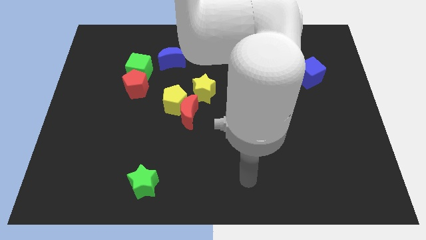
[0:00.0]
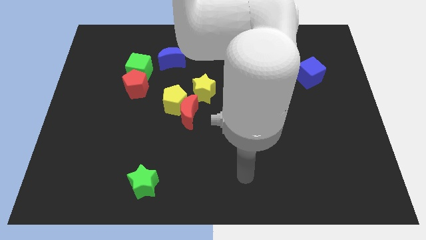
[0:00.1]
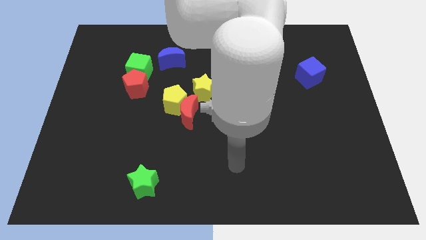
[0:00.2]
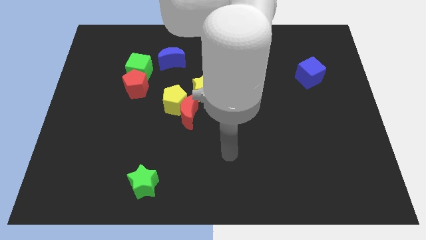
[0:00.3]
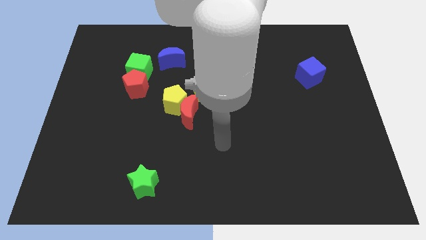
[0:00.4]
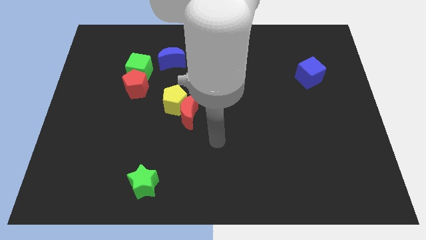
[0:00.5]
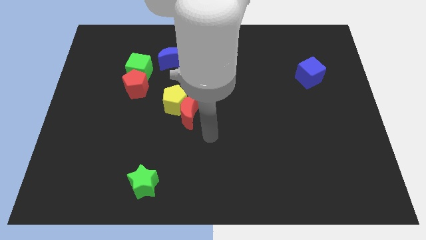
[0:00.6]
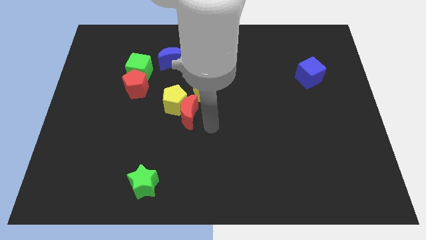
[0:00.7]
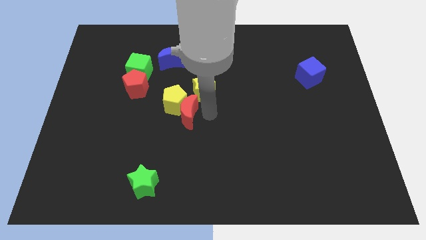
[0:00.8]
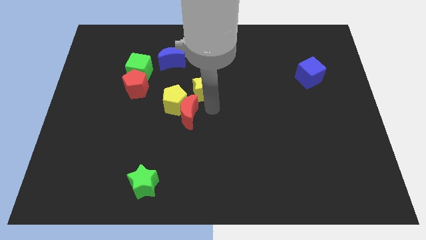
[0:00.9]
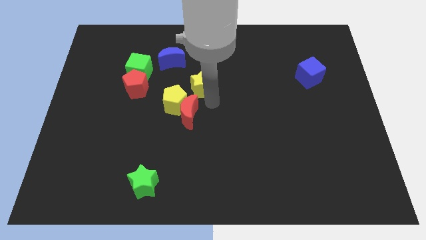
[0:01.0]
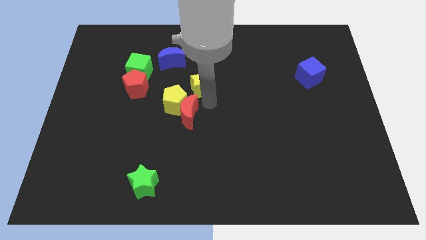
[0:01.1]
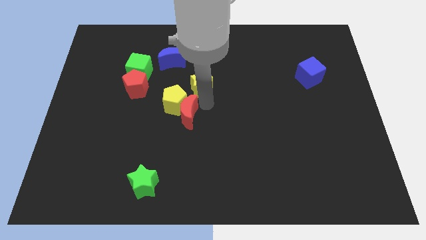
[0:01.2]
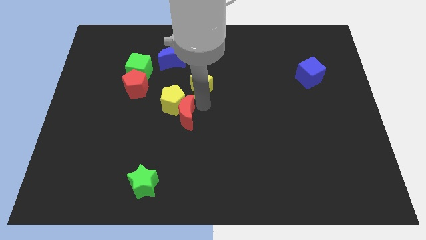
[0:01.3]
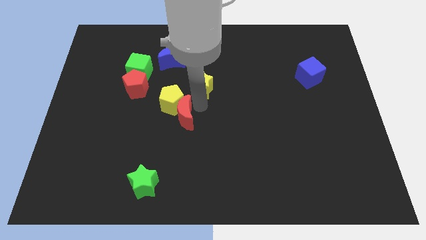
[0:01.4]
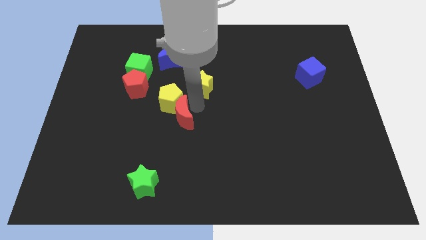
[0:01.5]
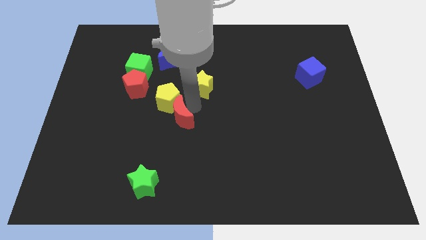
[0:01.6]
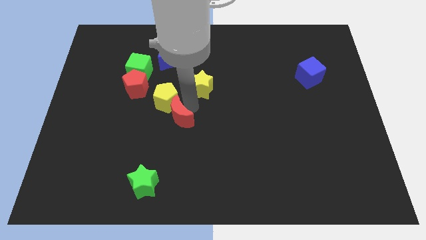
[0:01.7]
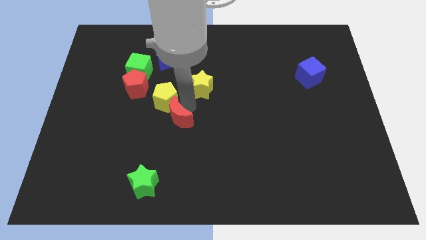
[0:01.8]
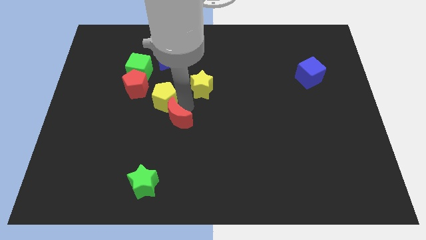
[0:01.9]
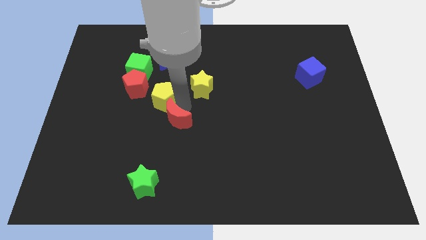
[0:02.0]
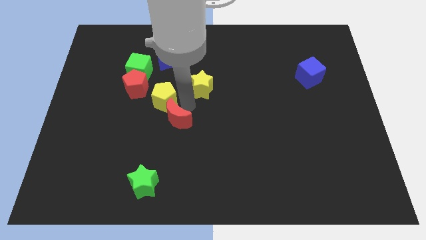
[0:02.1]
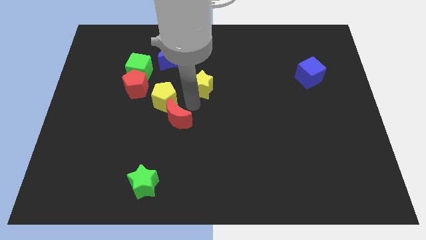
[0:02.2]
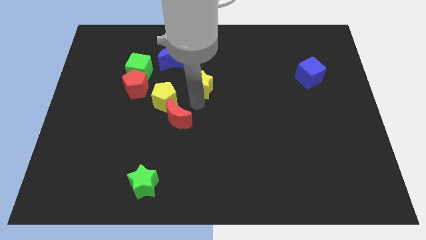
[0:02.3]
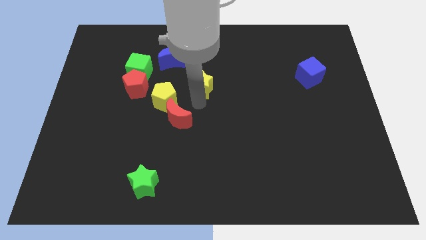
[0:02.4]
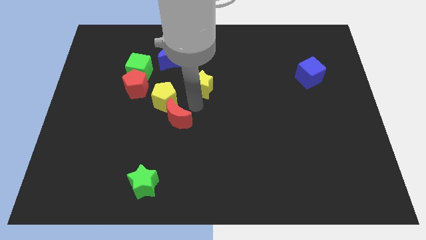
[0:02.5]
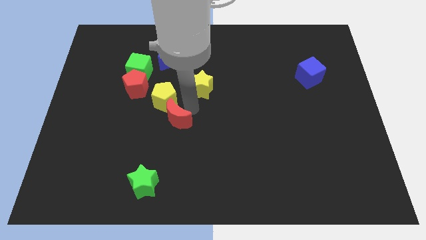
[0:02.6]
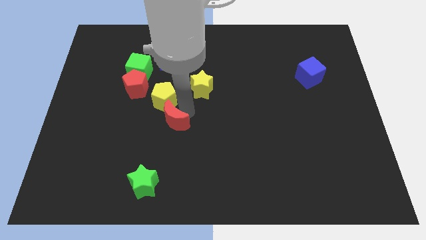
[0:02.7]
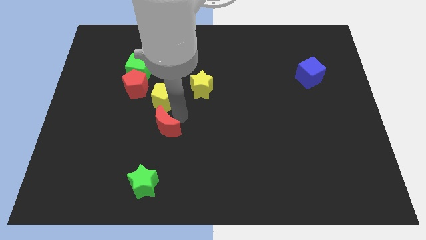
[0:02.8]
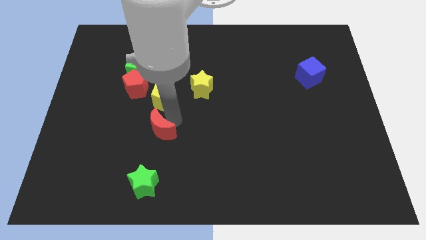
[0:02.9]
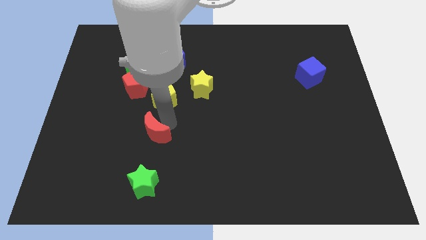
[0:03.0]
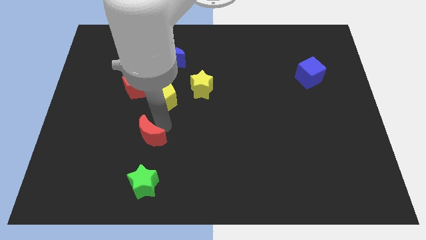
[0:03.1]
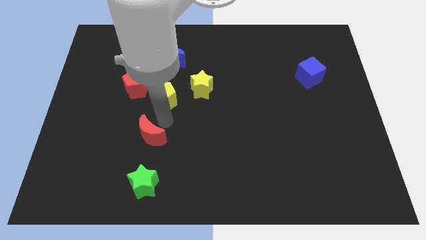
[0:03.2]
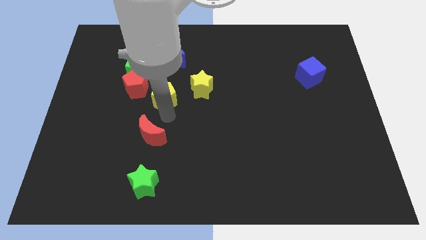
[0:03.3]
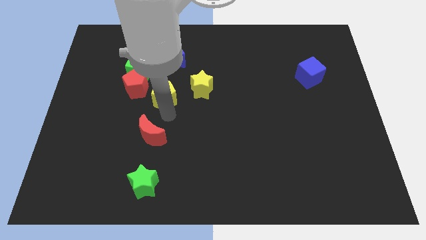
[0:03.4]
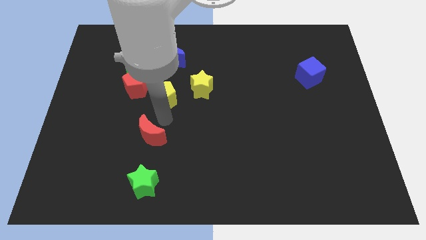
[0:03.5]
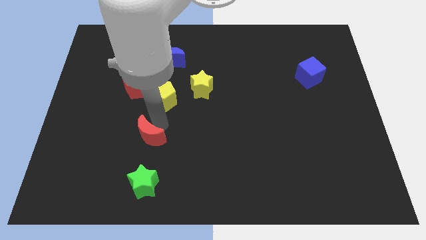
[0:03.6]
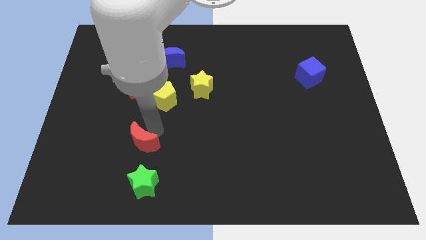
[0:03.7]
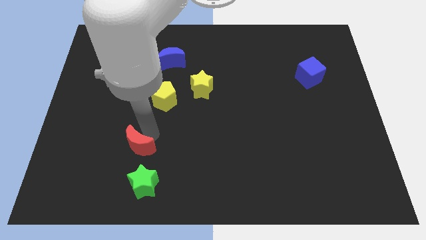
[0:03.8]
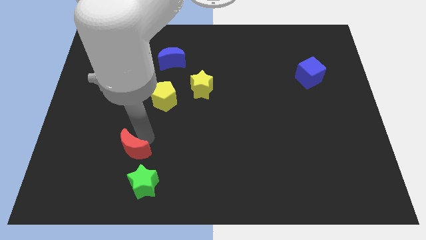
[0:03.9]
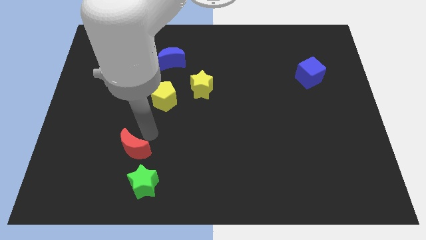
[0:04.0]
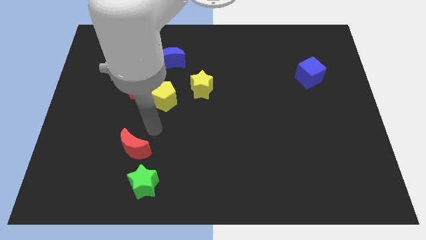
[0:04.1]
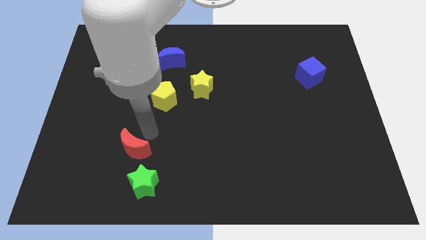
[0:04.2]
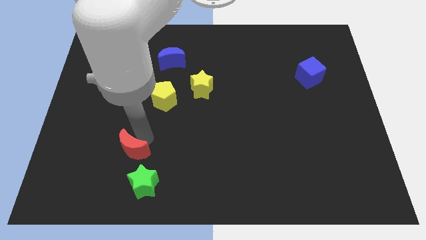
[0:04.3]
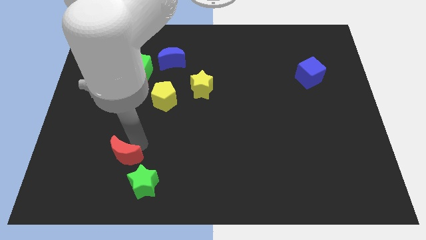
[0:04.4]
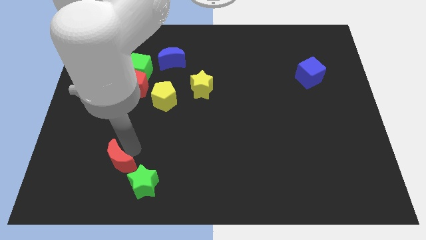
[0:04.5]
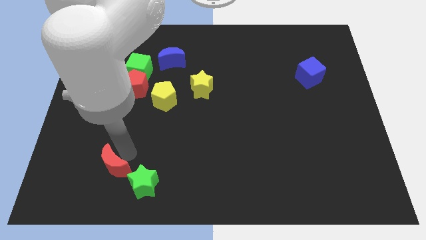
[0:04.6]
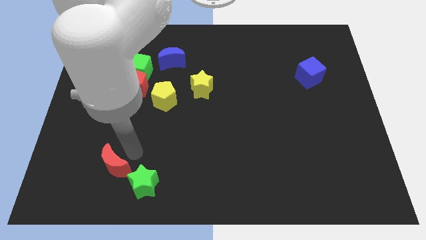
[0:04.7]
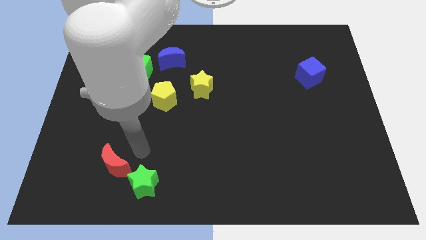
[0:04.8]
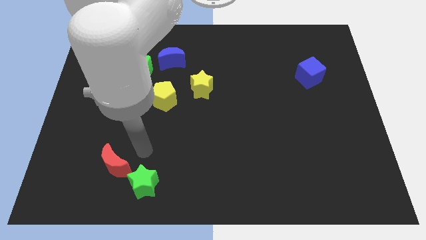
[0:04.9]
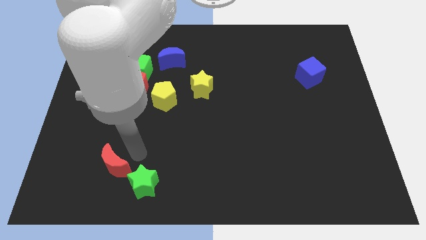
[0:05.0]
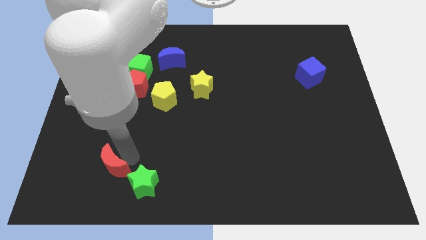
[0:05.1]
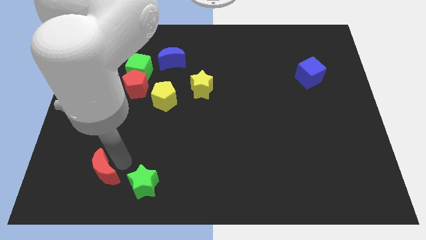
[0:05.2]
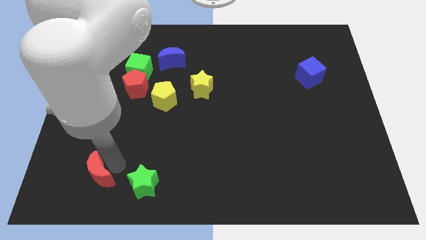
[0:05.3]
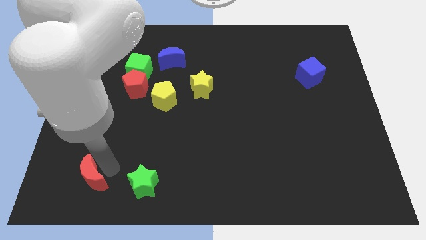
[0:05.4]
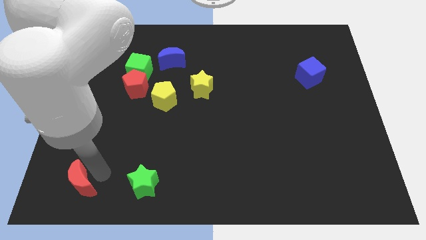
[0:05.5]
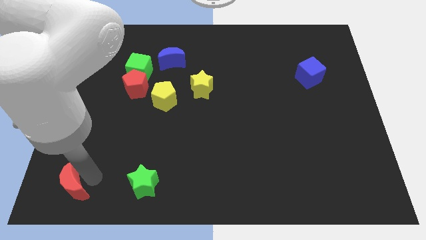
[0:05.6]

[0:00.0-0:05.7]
push the red moon to the bottom left

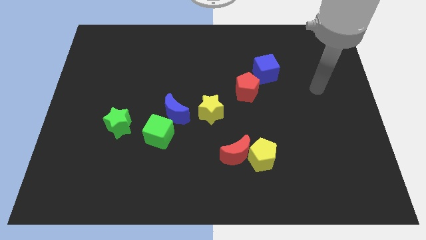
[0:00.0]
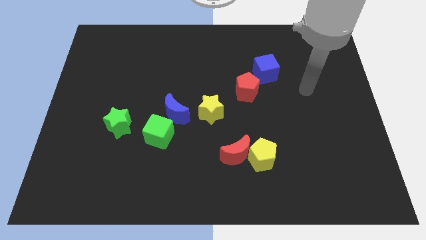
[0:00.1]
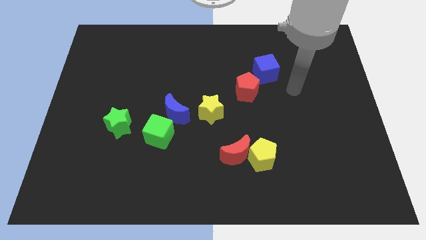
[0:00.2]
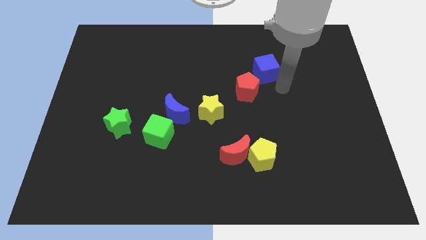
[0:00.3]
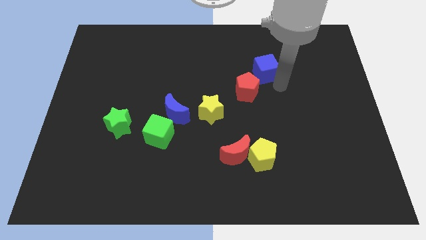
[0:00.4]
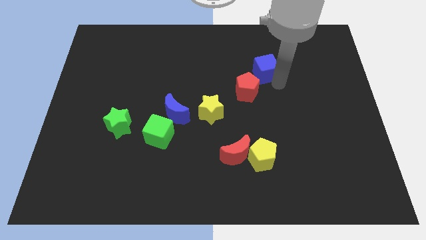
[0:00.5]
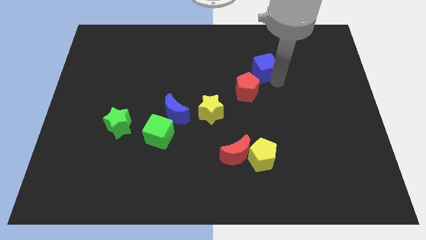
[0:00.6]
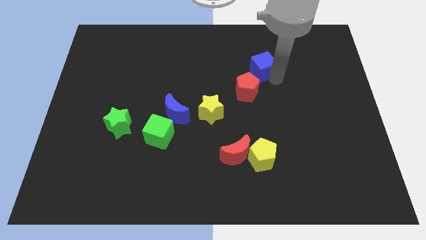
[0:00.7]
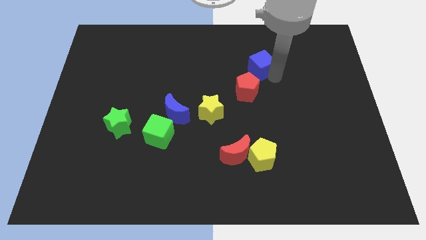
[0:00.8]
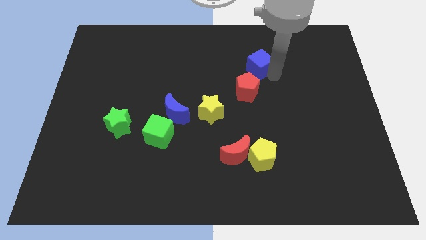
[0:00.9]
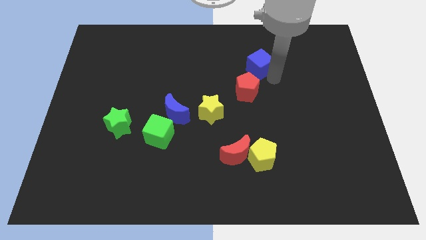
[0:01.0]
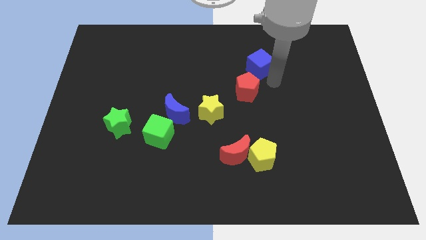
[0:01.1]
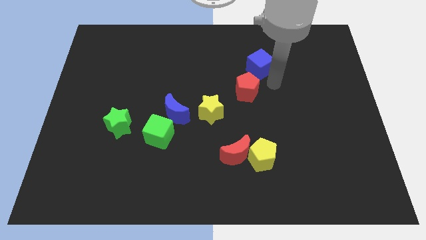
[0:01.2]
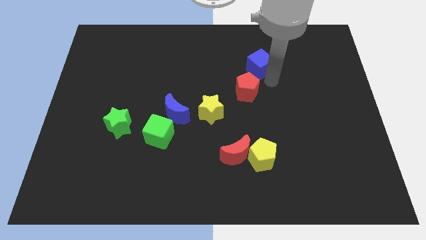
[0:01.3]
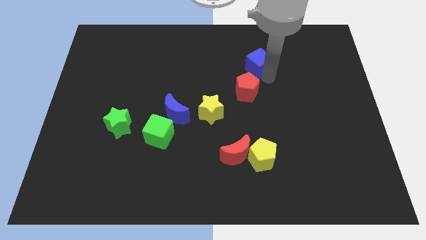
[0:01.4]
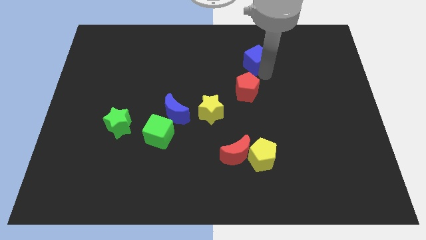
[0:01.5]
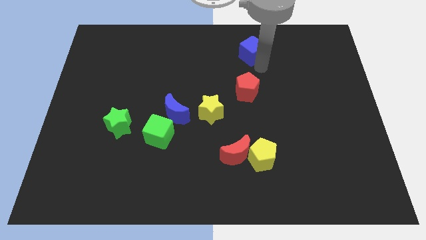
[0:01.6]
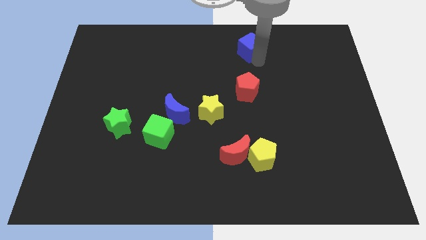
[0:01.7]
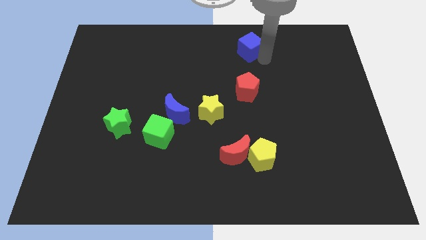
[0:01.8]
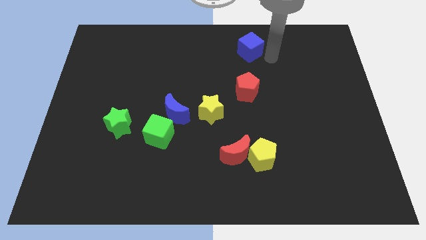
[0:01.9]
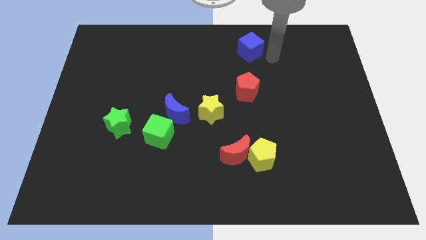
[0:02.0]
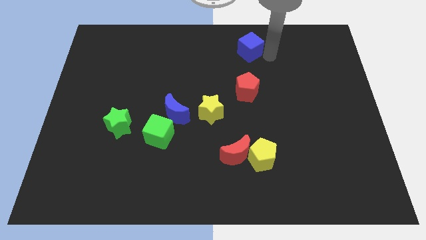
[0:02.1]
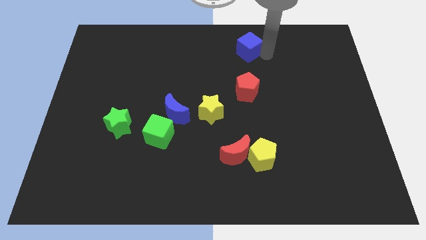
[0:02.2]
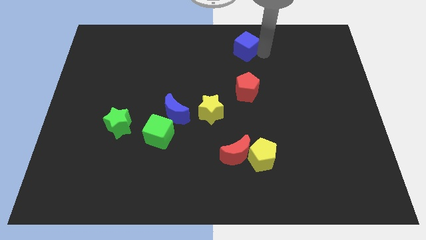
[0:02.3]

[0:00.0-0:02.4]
move the blue cube to the top
